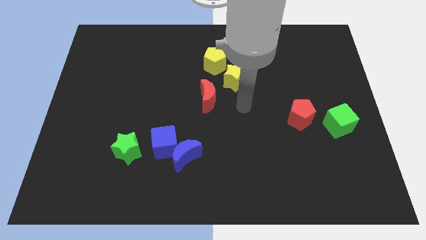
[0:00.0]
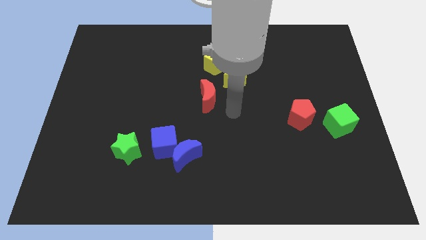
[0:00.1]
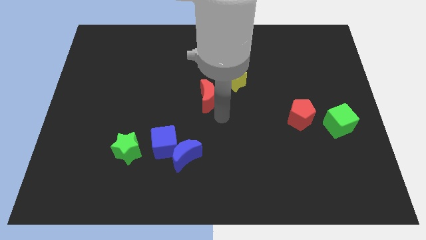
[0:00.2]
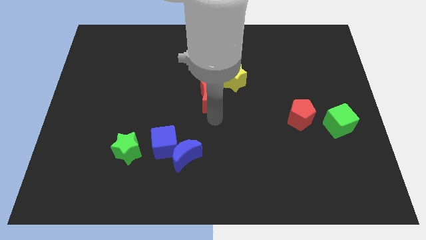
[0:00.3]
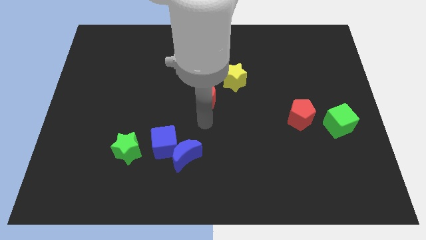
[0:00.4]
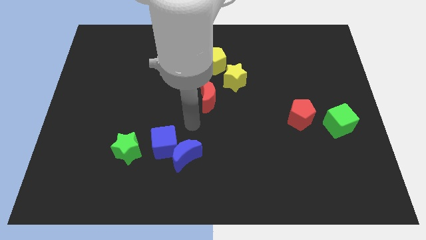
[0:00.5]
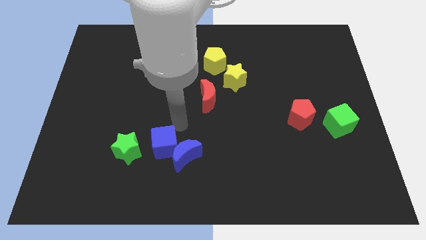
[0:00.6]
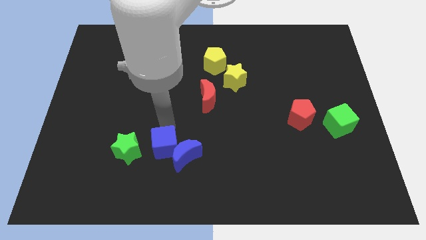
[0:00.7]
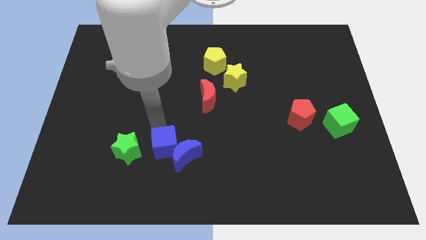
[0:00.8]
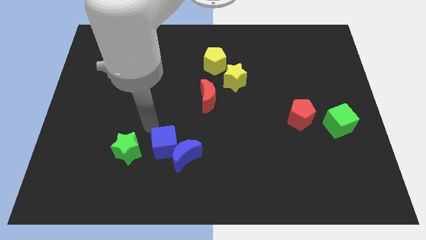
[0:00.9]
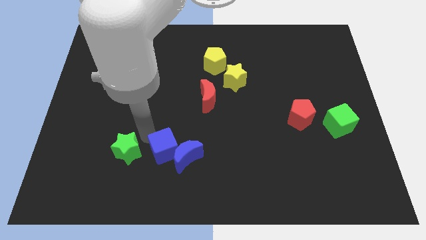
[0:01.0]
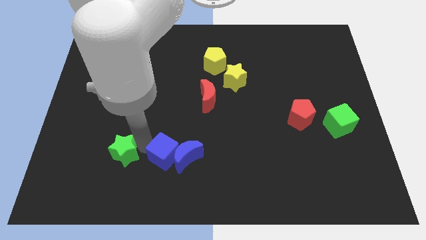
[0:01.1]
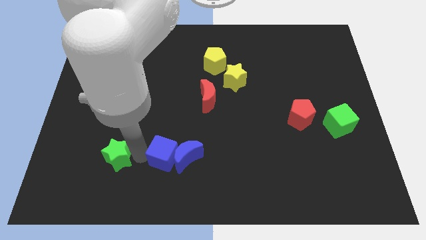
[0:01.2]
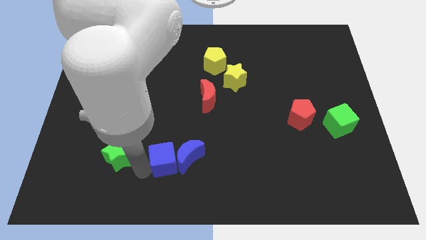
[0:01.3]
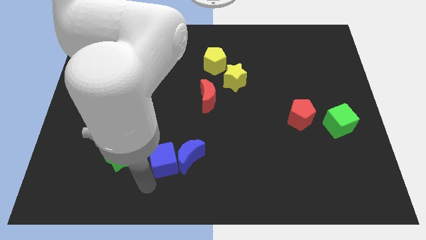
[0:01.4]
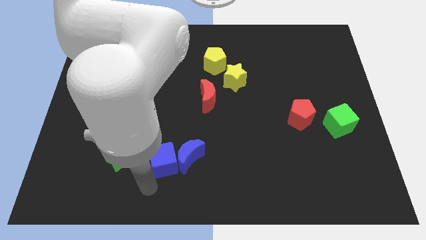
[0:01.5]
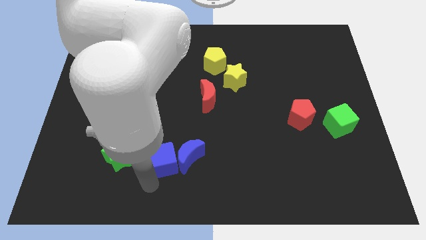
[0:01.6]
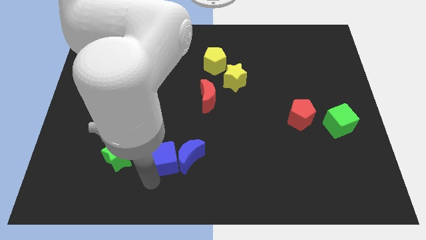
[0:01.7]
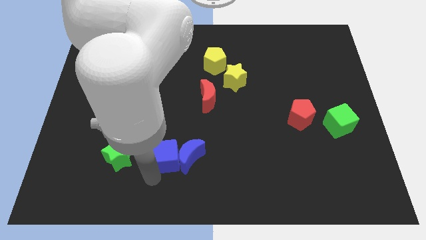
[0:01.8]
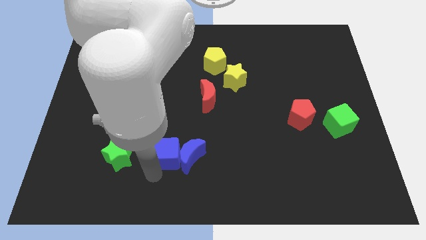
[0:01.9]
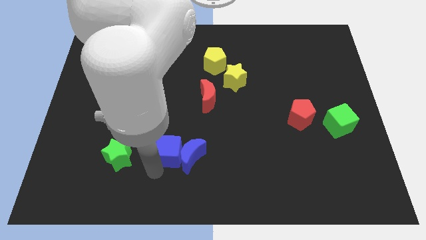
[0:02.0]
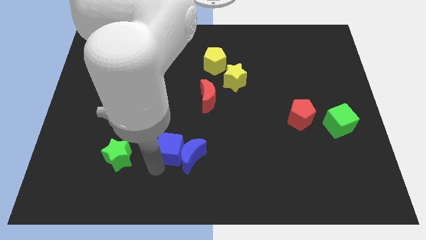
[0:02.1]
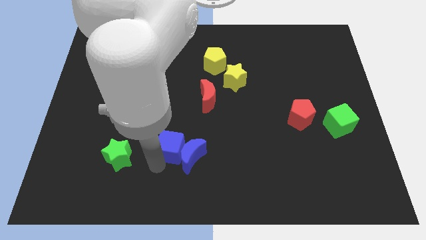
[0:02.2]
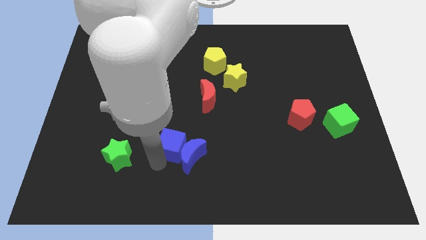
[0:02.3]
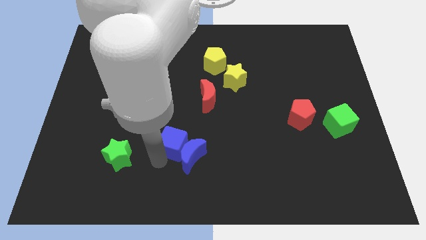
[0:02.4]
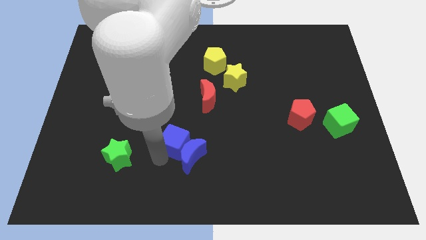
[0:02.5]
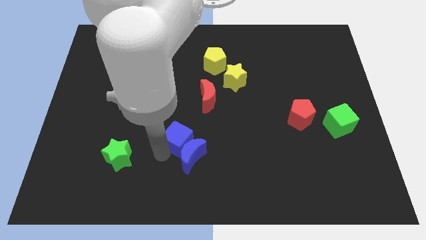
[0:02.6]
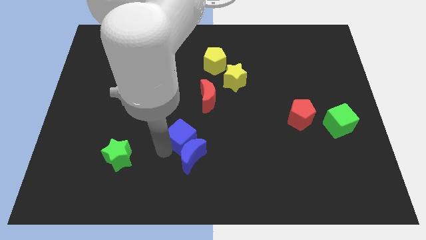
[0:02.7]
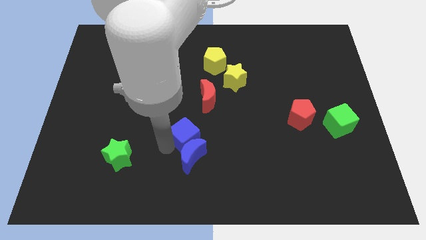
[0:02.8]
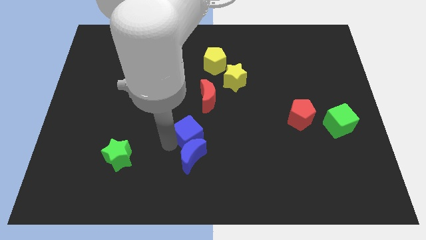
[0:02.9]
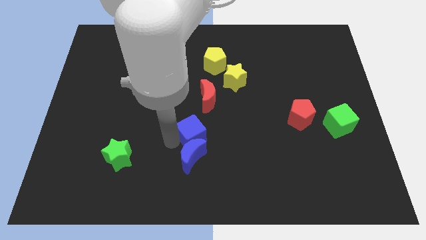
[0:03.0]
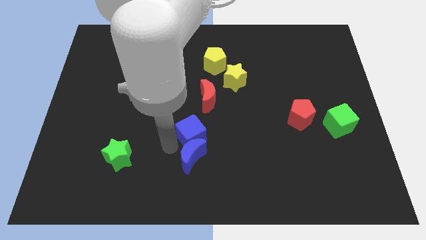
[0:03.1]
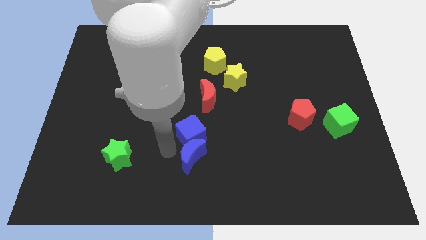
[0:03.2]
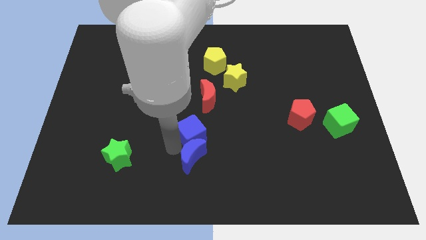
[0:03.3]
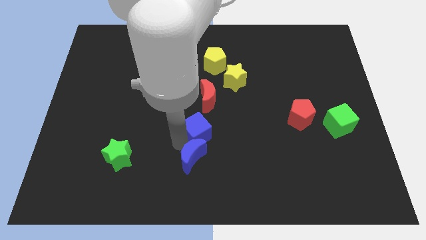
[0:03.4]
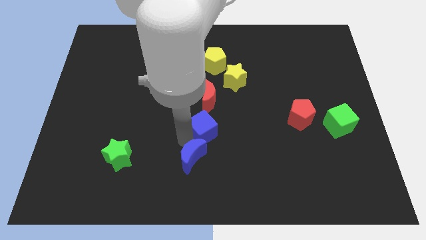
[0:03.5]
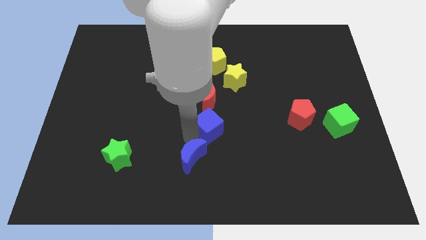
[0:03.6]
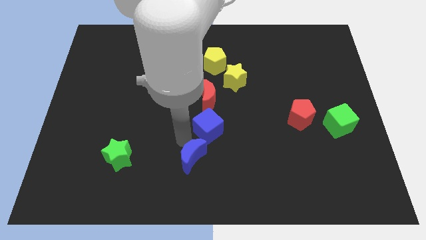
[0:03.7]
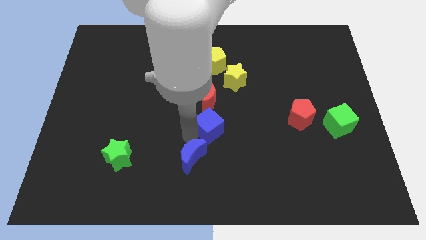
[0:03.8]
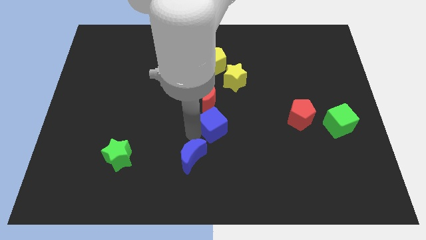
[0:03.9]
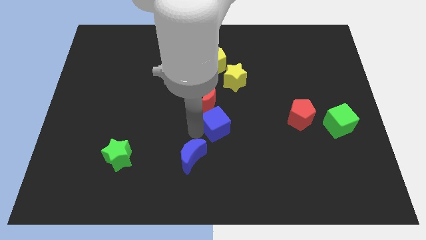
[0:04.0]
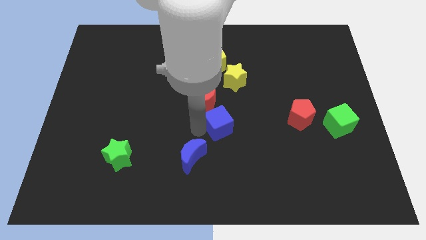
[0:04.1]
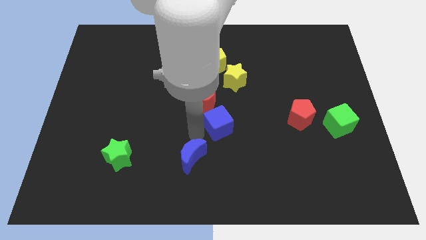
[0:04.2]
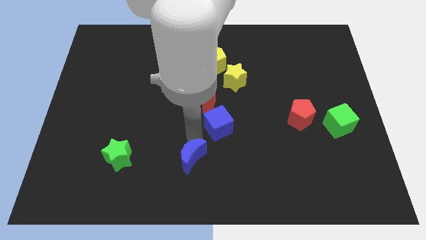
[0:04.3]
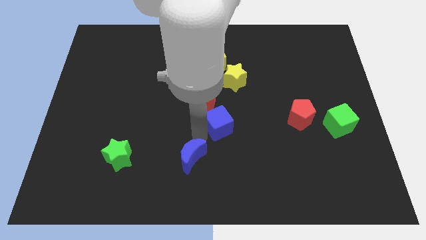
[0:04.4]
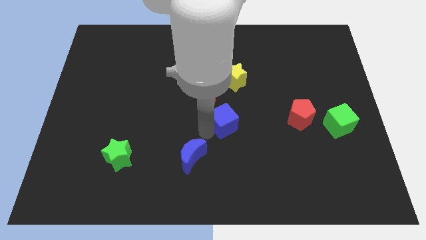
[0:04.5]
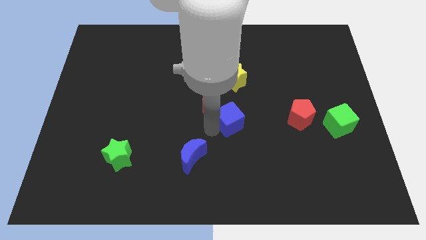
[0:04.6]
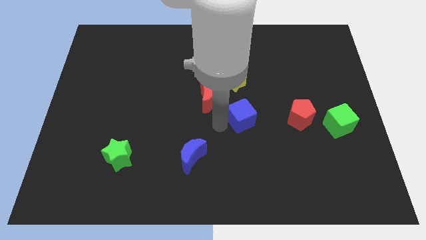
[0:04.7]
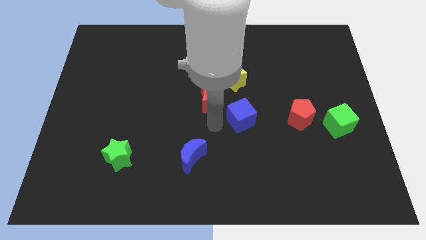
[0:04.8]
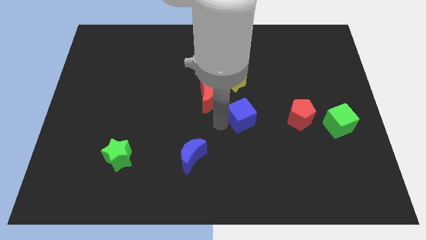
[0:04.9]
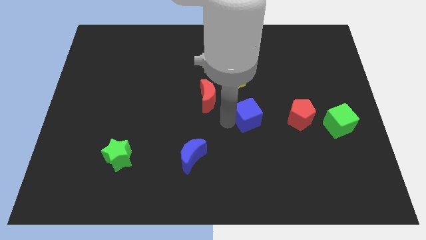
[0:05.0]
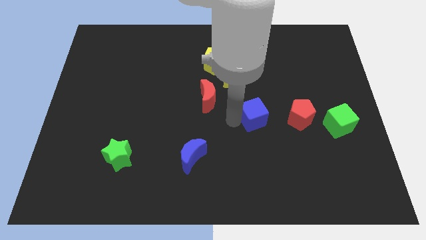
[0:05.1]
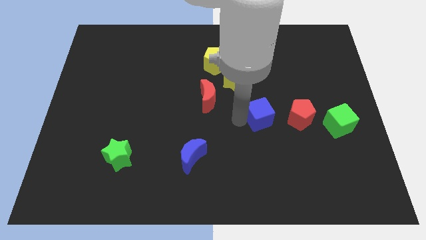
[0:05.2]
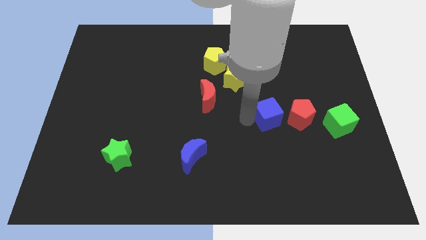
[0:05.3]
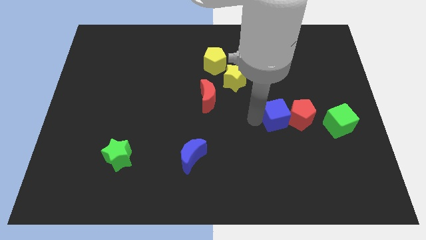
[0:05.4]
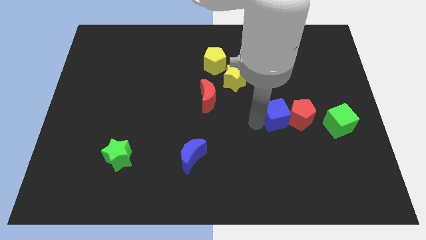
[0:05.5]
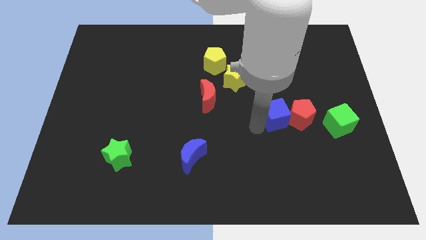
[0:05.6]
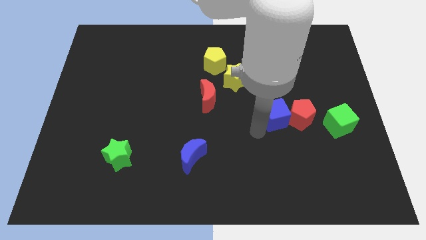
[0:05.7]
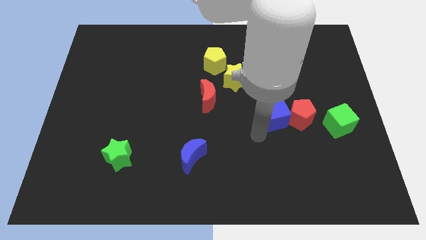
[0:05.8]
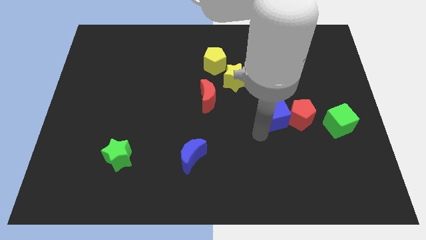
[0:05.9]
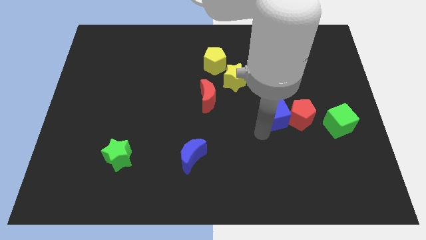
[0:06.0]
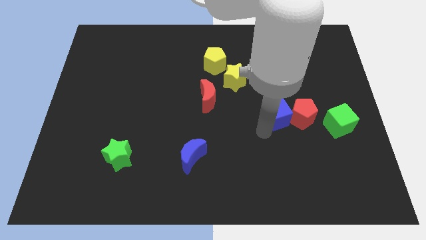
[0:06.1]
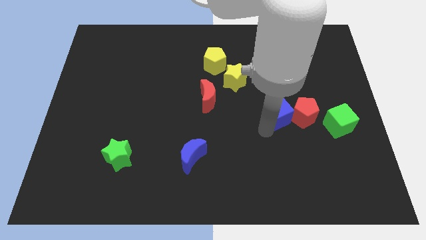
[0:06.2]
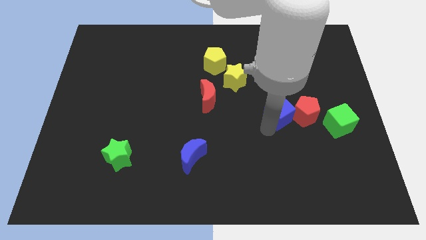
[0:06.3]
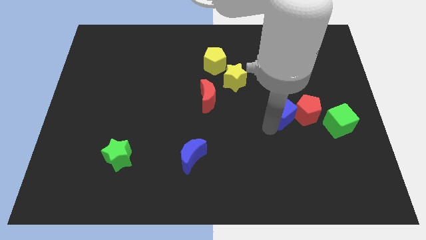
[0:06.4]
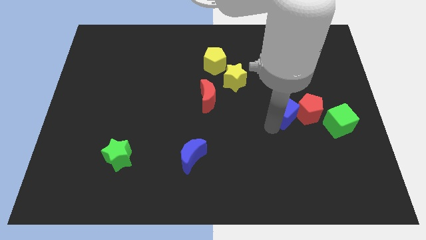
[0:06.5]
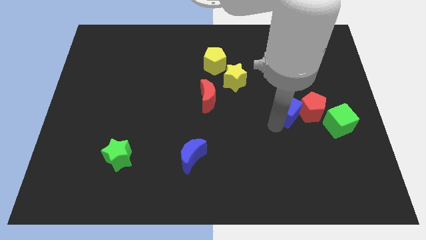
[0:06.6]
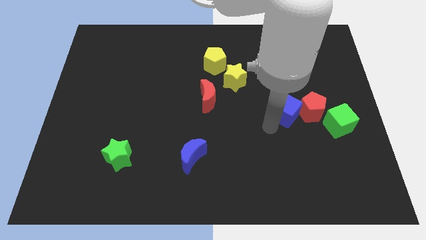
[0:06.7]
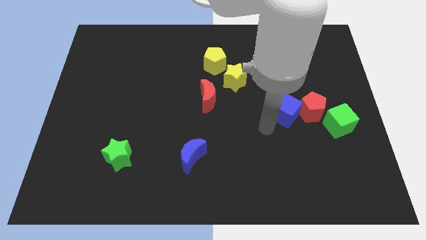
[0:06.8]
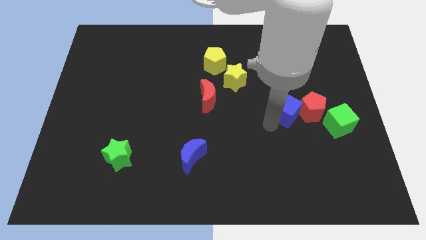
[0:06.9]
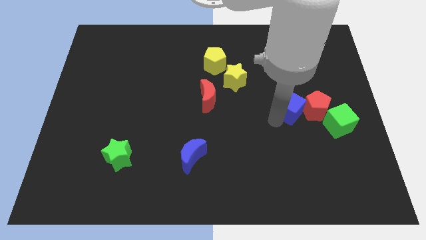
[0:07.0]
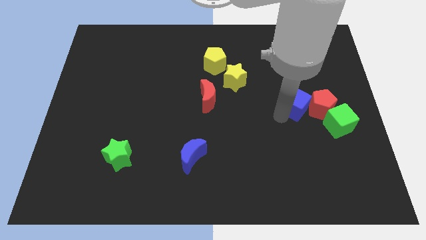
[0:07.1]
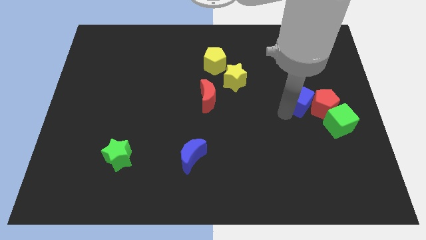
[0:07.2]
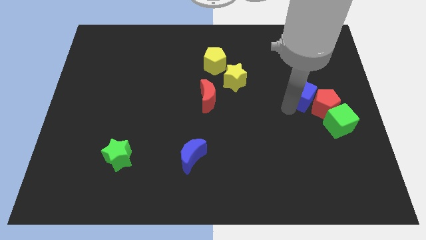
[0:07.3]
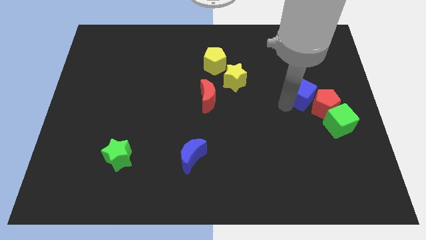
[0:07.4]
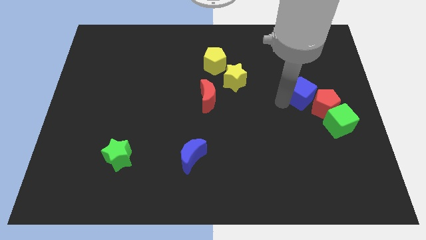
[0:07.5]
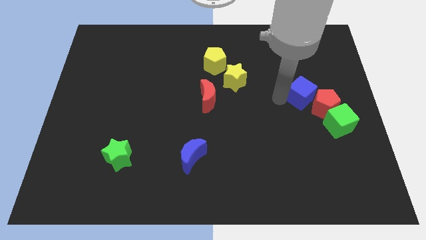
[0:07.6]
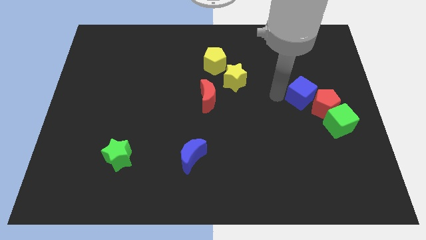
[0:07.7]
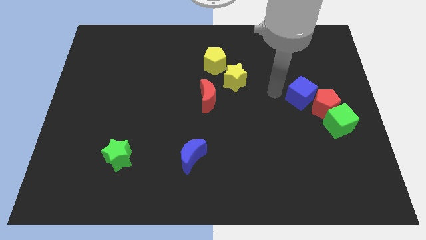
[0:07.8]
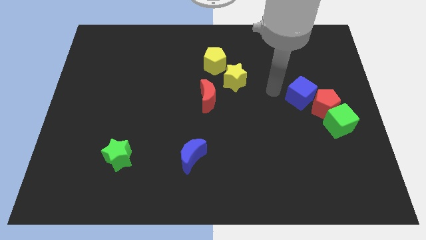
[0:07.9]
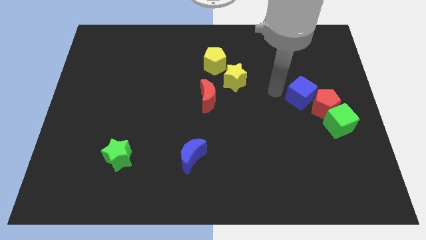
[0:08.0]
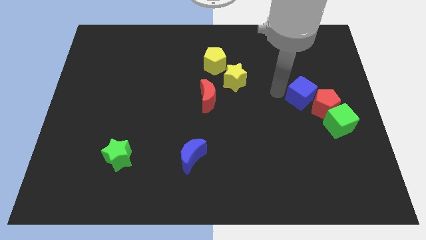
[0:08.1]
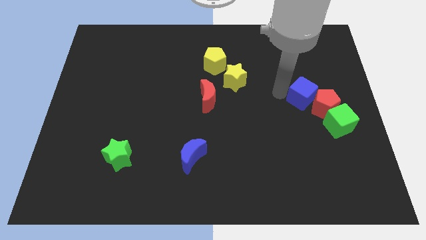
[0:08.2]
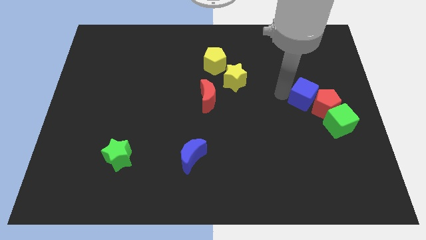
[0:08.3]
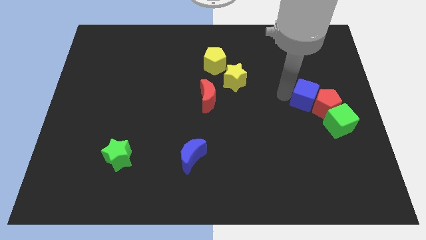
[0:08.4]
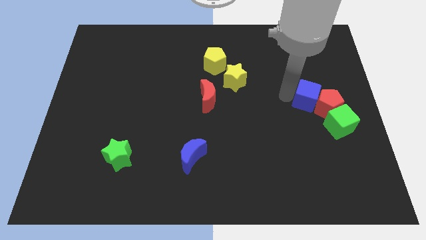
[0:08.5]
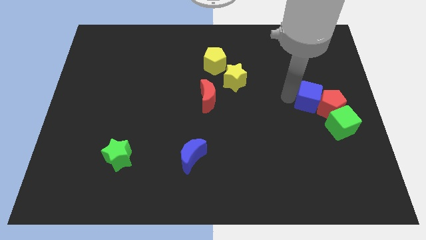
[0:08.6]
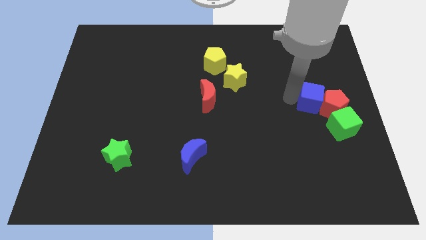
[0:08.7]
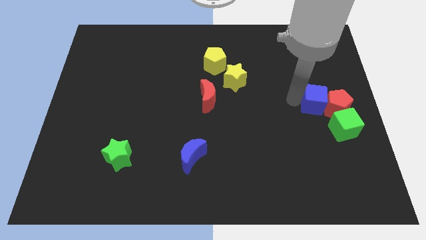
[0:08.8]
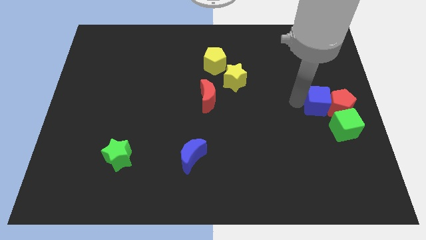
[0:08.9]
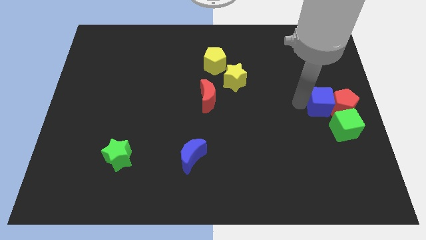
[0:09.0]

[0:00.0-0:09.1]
move the blue cube to the center right
